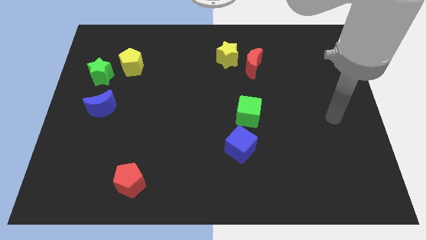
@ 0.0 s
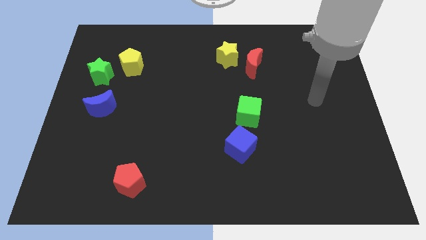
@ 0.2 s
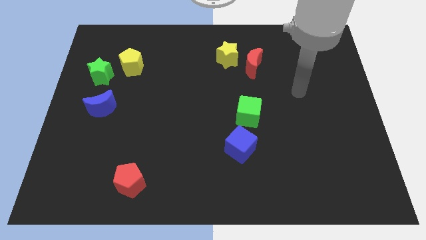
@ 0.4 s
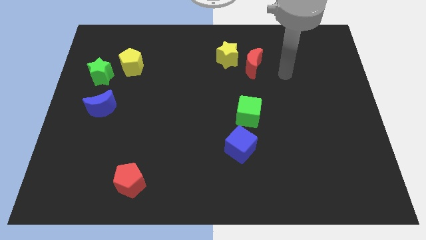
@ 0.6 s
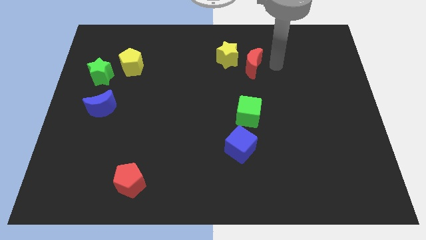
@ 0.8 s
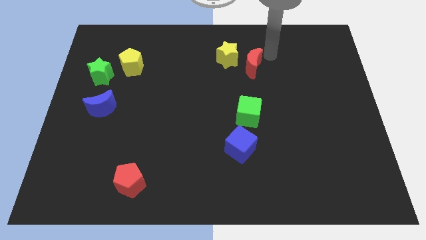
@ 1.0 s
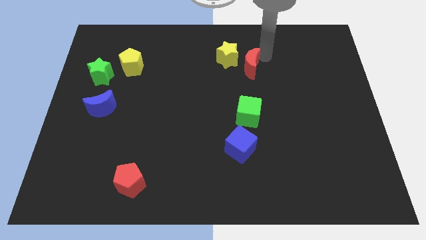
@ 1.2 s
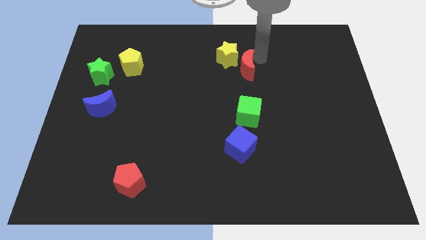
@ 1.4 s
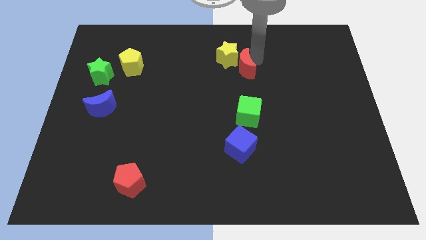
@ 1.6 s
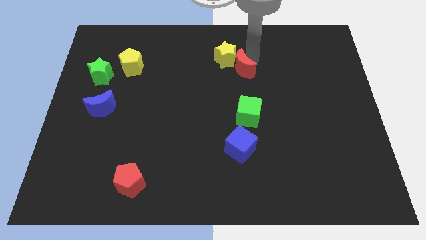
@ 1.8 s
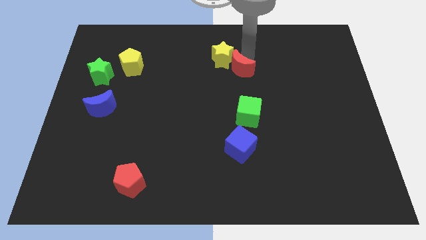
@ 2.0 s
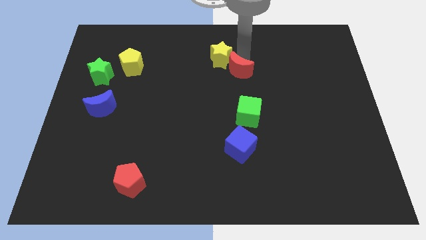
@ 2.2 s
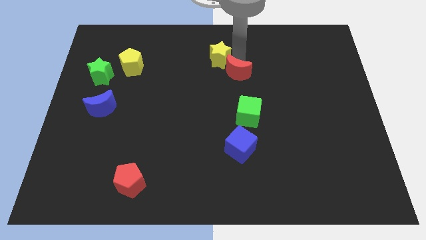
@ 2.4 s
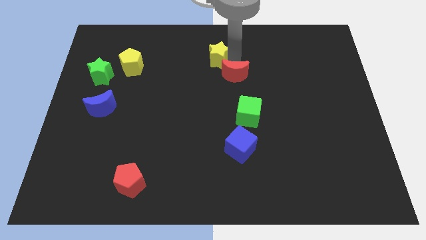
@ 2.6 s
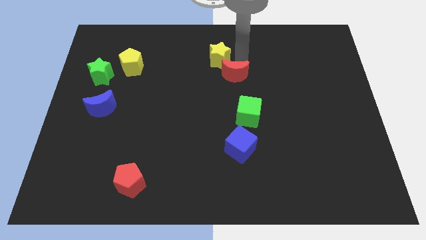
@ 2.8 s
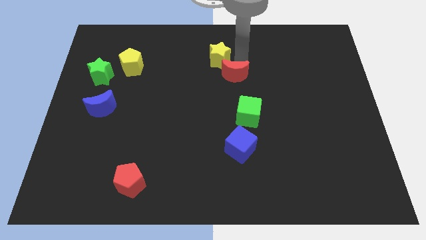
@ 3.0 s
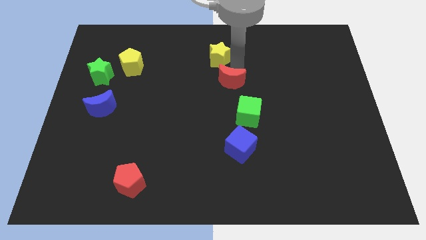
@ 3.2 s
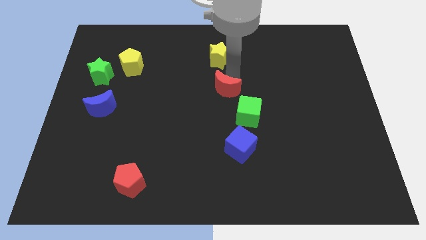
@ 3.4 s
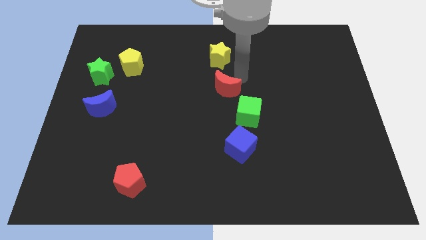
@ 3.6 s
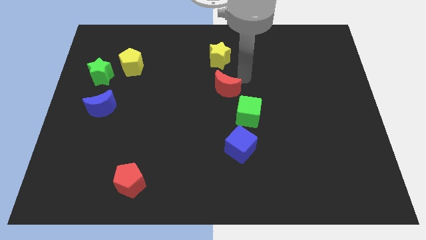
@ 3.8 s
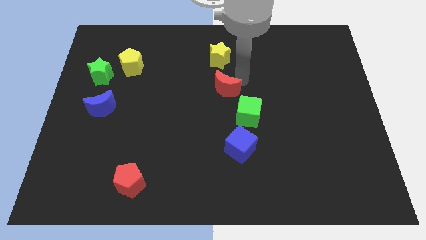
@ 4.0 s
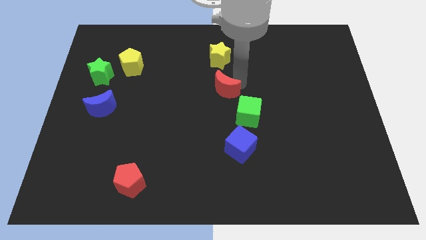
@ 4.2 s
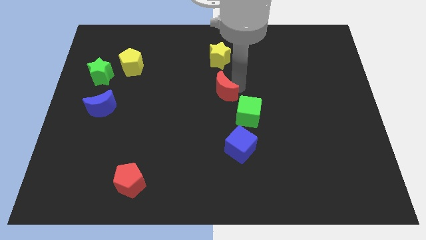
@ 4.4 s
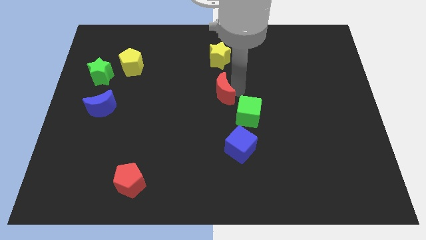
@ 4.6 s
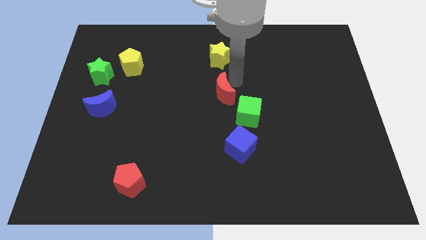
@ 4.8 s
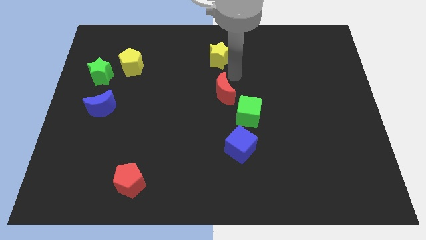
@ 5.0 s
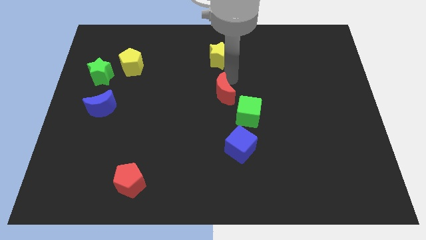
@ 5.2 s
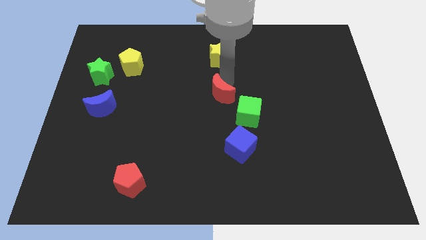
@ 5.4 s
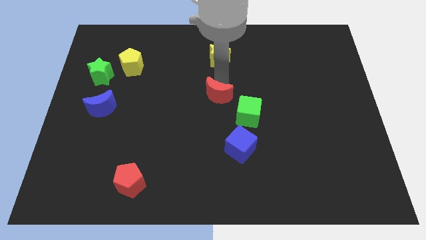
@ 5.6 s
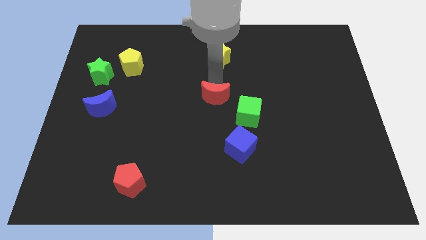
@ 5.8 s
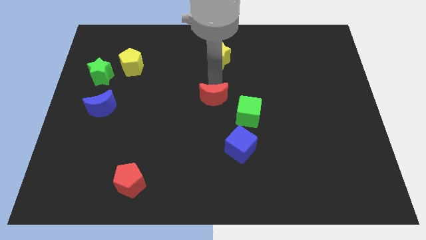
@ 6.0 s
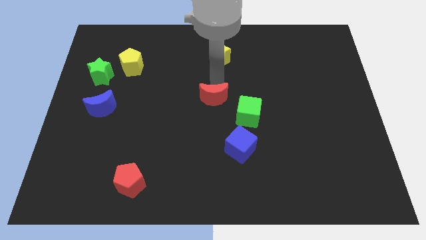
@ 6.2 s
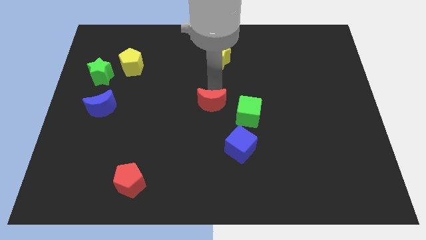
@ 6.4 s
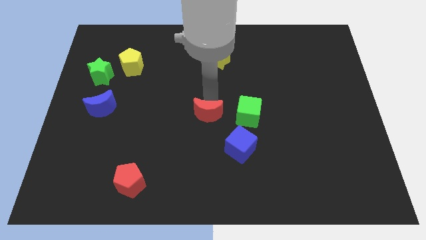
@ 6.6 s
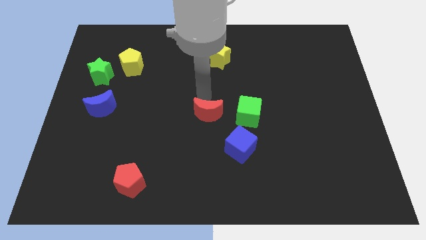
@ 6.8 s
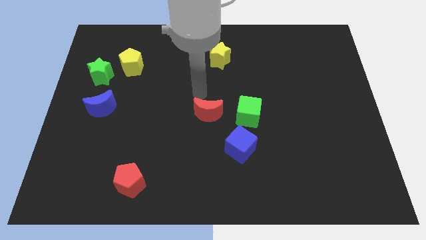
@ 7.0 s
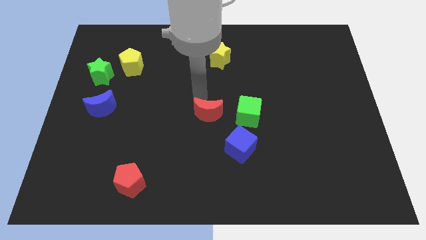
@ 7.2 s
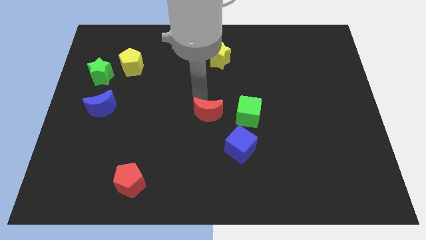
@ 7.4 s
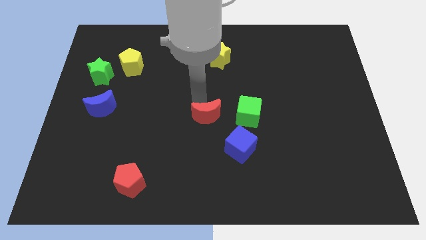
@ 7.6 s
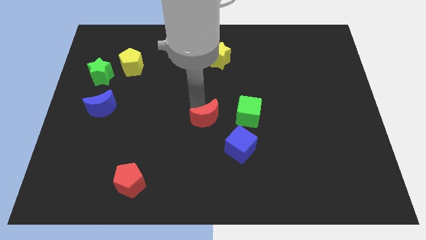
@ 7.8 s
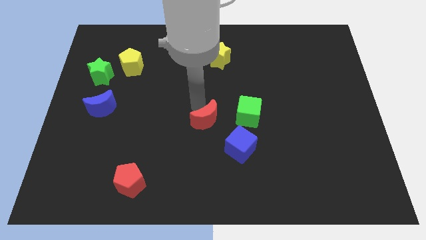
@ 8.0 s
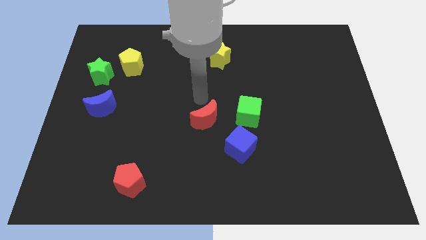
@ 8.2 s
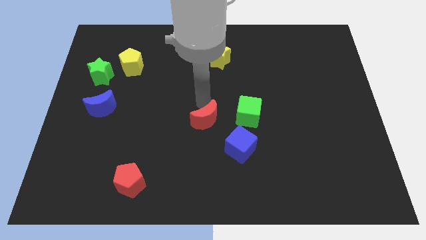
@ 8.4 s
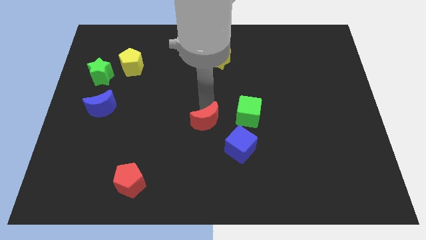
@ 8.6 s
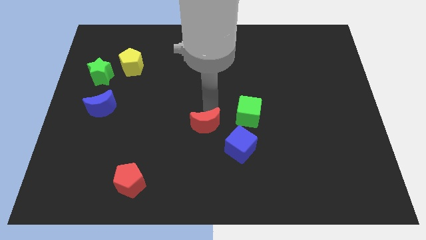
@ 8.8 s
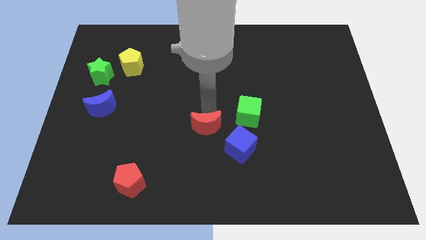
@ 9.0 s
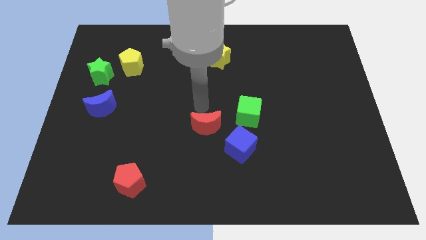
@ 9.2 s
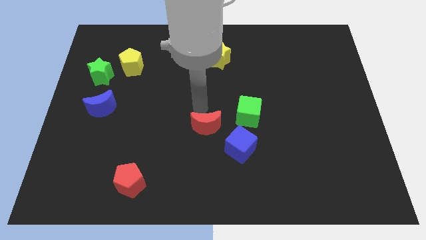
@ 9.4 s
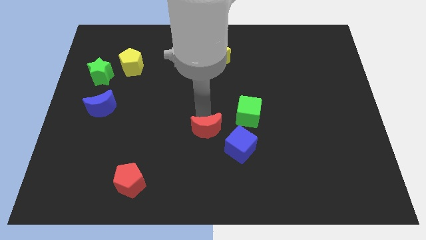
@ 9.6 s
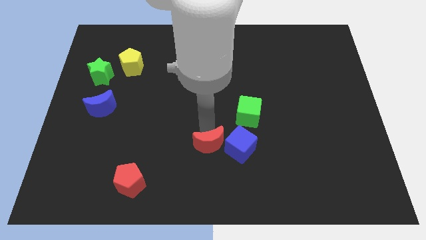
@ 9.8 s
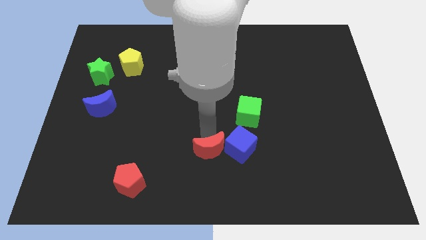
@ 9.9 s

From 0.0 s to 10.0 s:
push the red moon diagonally down and to the left of the blue cube

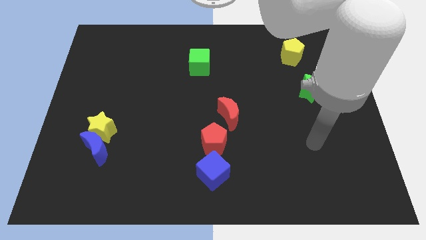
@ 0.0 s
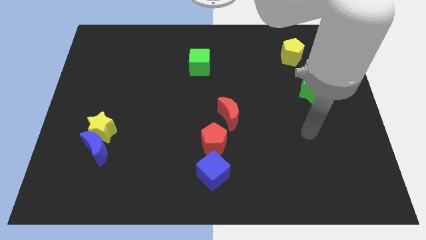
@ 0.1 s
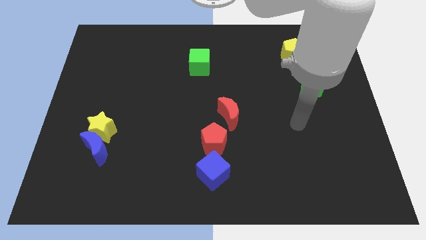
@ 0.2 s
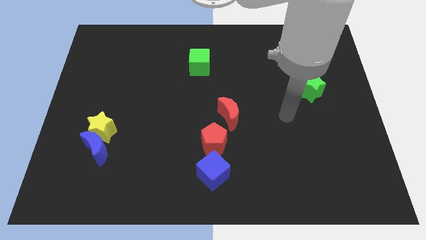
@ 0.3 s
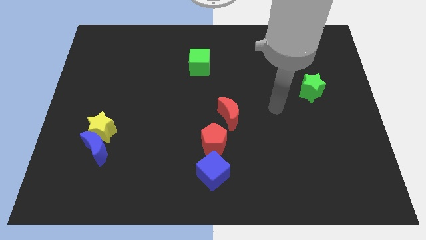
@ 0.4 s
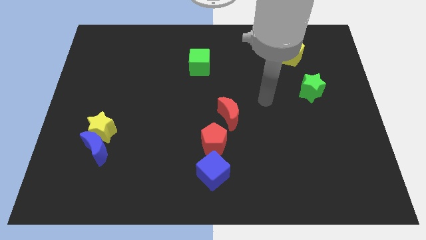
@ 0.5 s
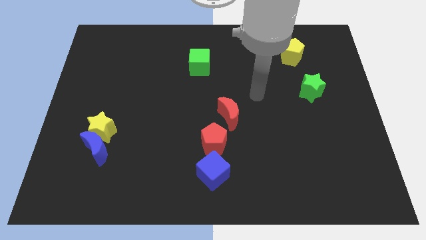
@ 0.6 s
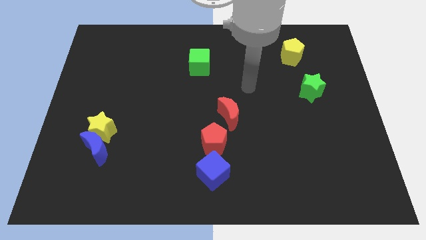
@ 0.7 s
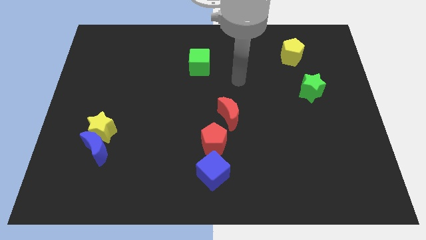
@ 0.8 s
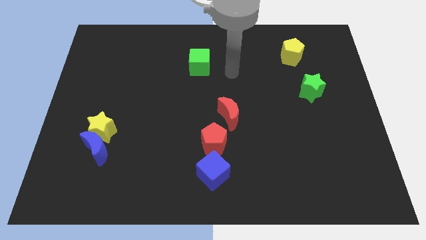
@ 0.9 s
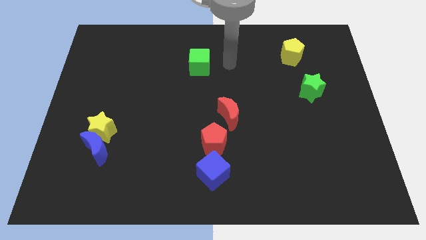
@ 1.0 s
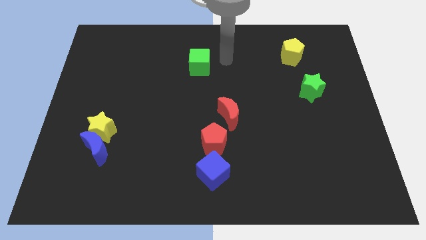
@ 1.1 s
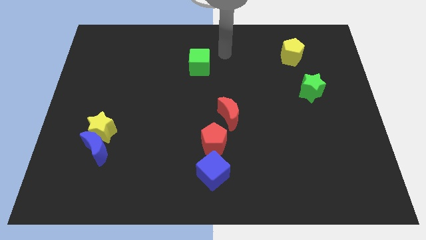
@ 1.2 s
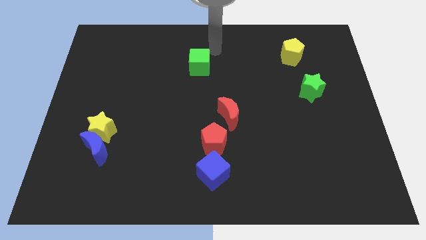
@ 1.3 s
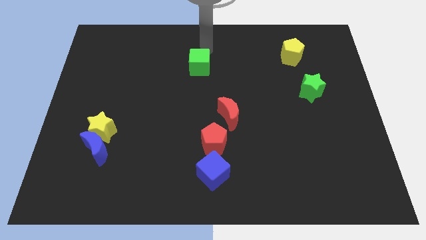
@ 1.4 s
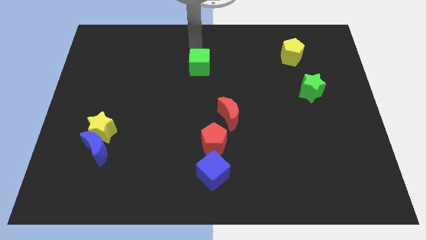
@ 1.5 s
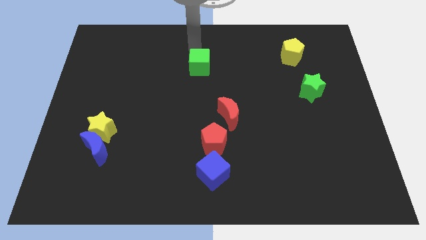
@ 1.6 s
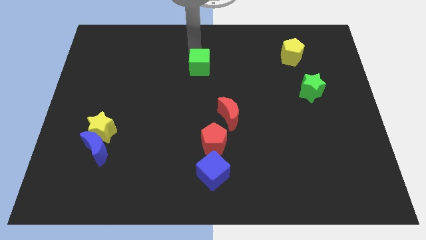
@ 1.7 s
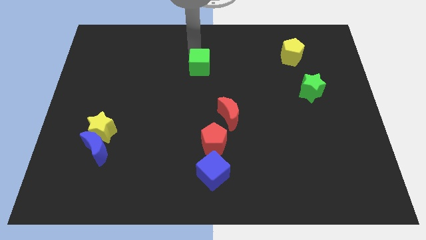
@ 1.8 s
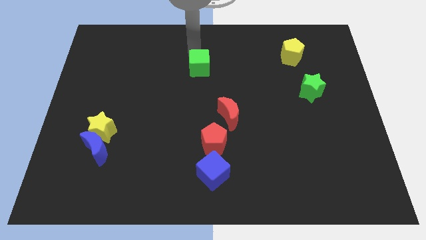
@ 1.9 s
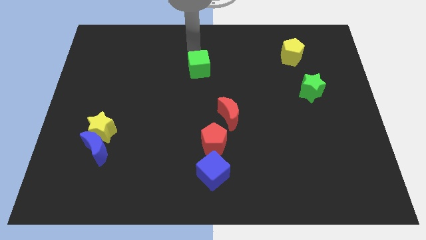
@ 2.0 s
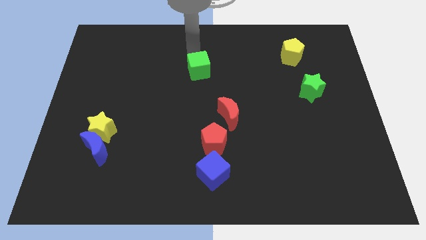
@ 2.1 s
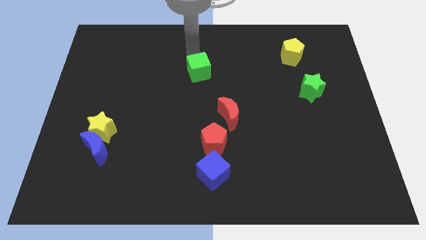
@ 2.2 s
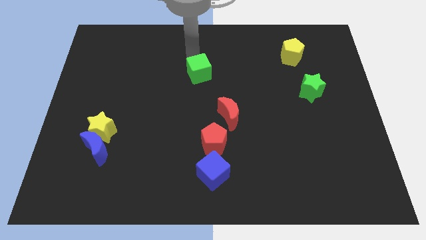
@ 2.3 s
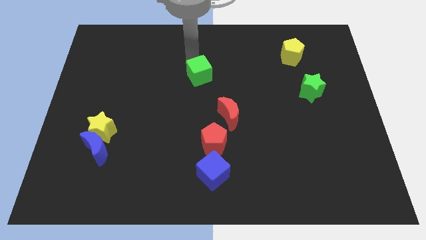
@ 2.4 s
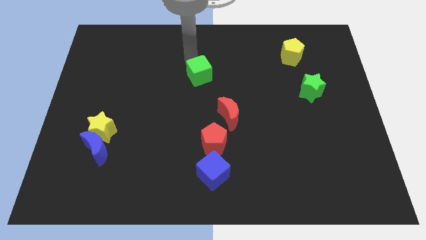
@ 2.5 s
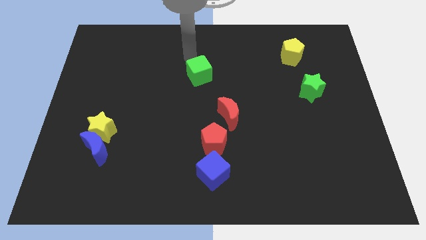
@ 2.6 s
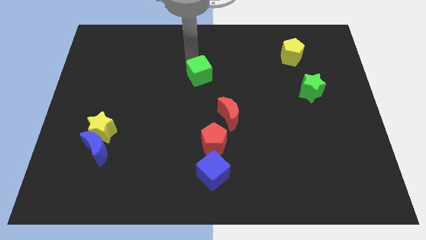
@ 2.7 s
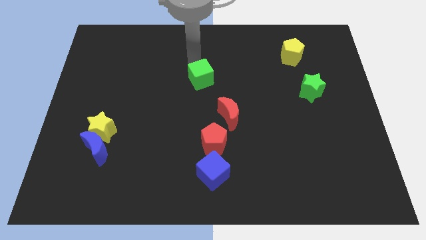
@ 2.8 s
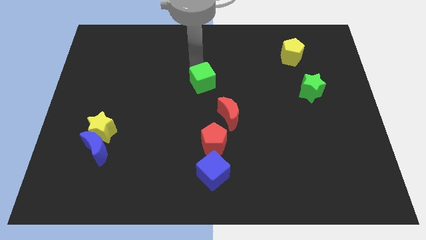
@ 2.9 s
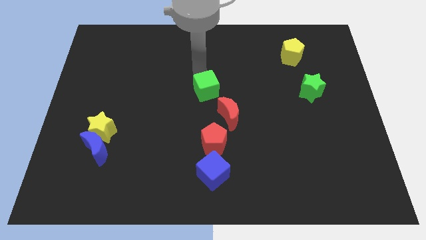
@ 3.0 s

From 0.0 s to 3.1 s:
push the green cube to the top of the red pentagon

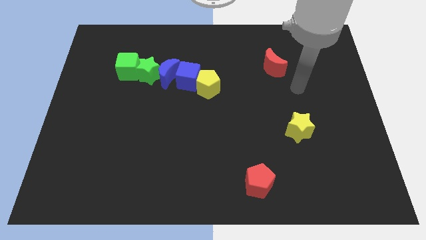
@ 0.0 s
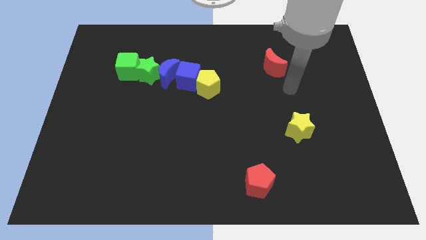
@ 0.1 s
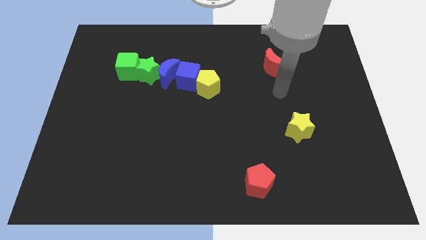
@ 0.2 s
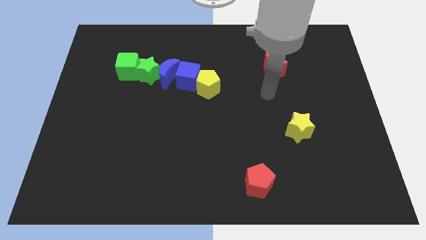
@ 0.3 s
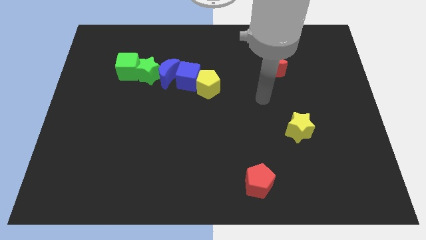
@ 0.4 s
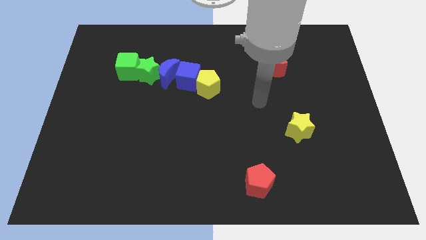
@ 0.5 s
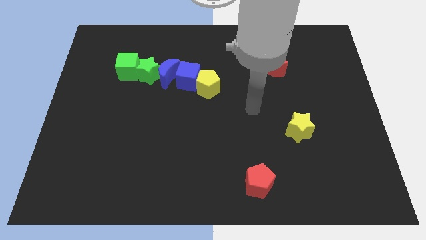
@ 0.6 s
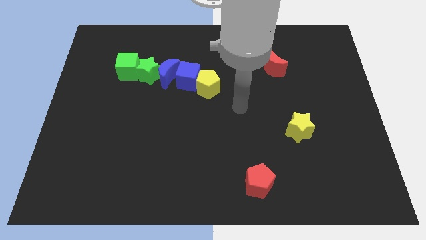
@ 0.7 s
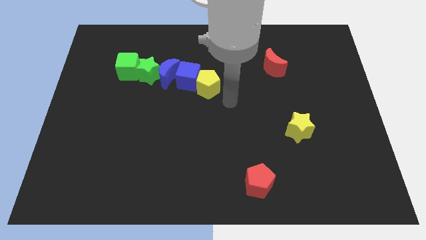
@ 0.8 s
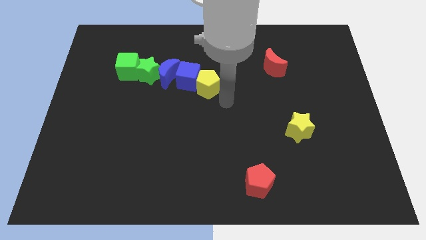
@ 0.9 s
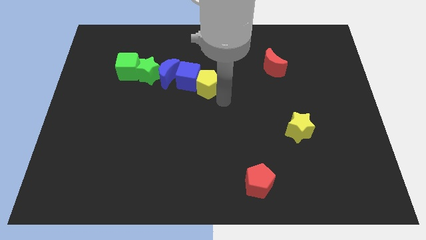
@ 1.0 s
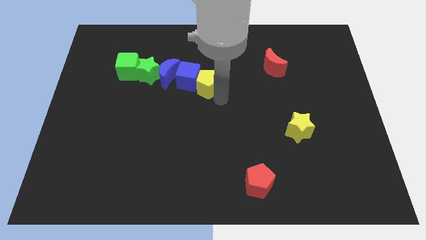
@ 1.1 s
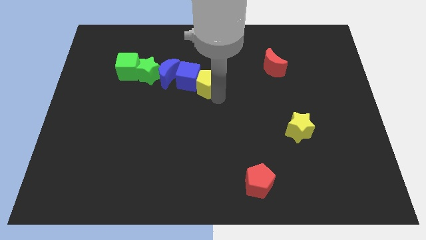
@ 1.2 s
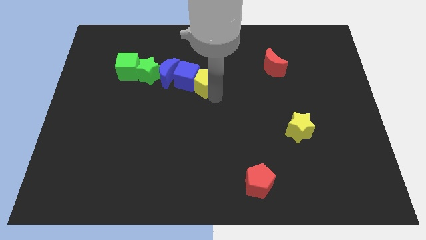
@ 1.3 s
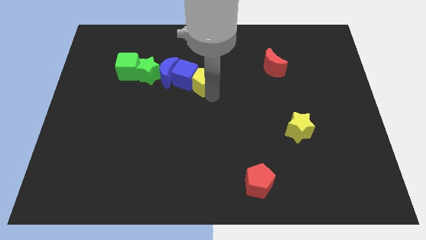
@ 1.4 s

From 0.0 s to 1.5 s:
slide the yellow pentagon to the right side of the green star
